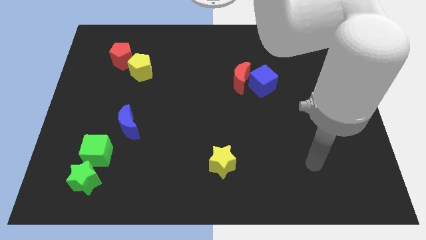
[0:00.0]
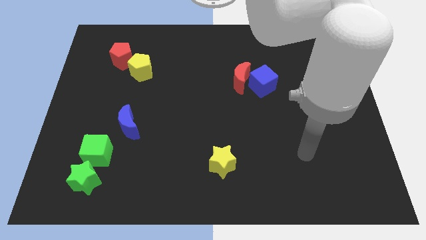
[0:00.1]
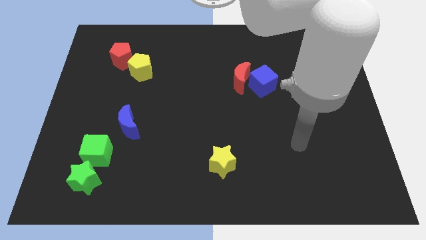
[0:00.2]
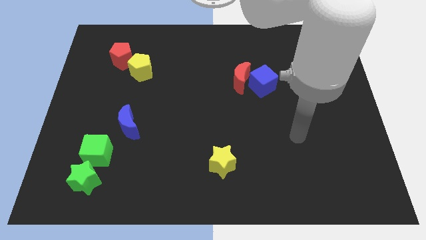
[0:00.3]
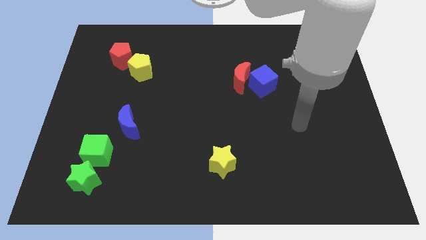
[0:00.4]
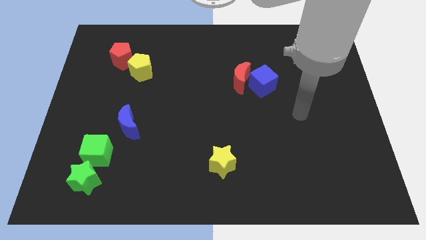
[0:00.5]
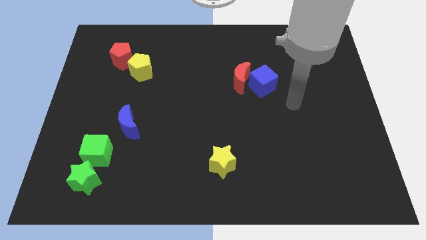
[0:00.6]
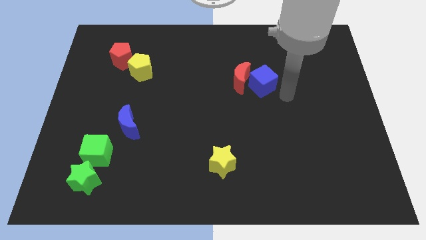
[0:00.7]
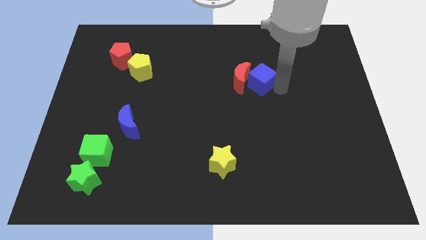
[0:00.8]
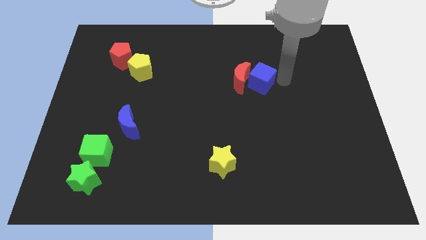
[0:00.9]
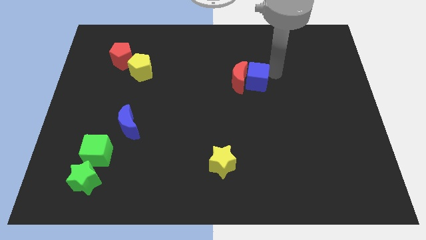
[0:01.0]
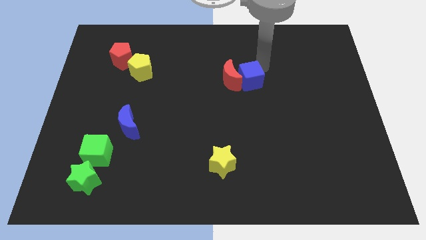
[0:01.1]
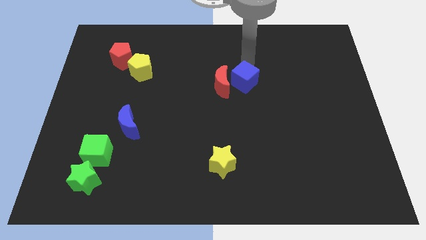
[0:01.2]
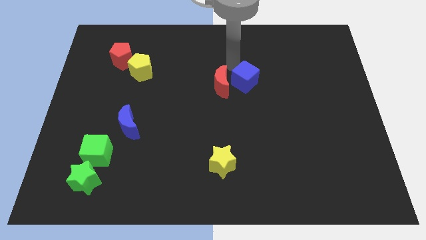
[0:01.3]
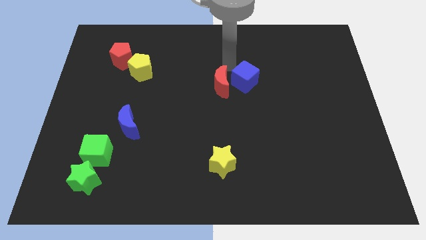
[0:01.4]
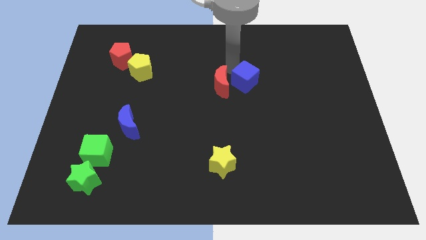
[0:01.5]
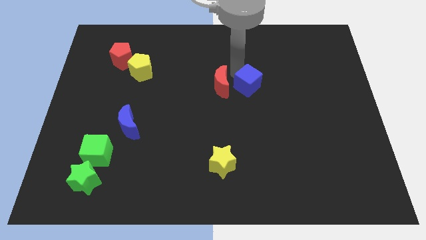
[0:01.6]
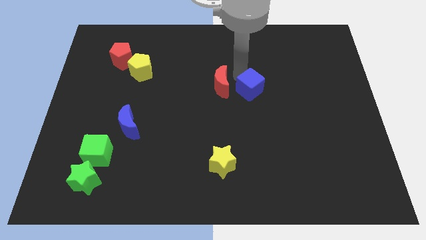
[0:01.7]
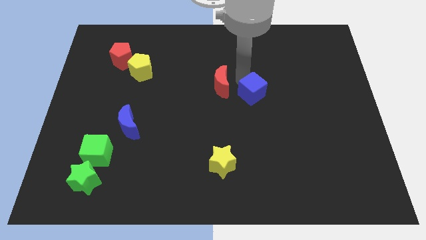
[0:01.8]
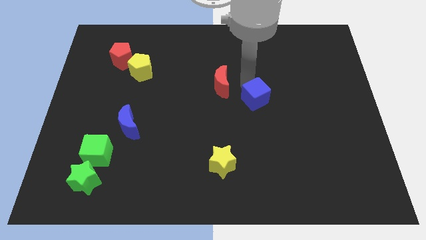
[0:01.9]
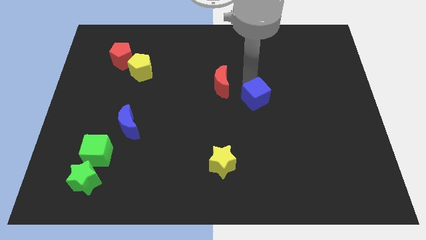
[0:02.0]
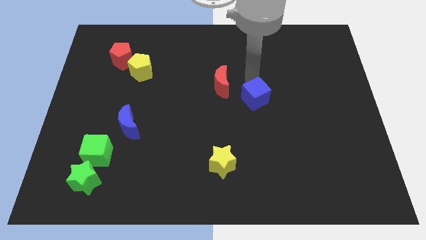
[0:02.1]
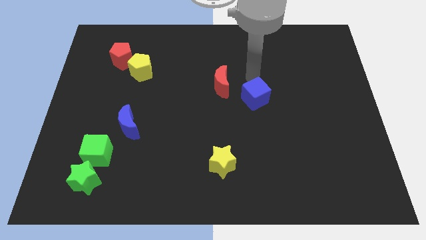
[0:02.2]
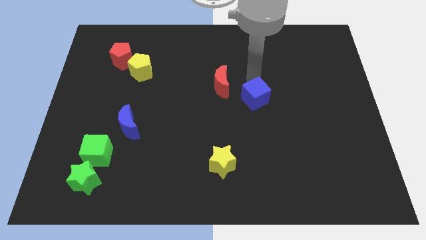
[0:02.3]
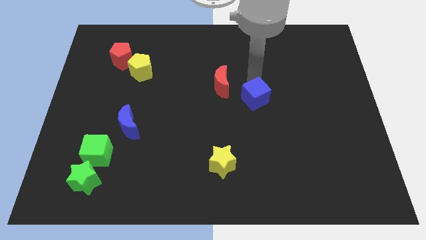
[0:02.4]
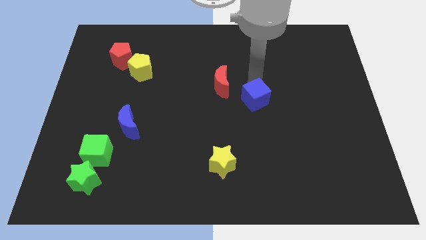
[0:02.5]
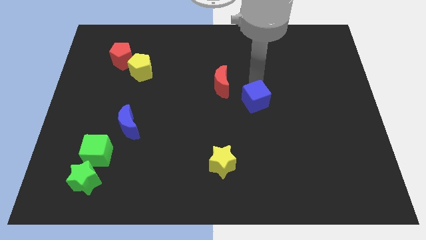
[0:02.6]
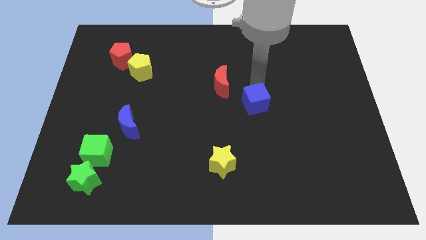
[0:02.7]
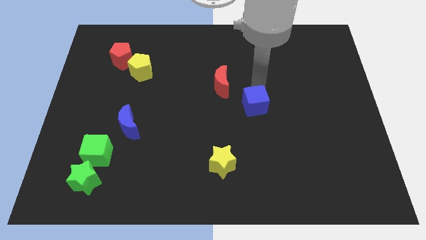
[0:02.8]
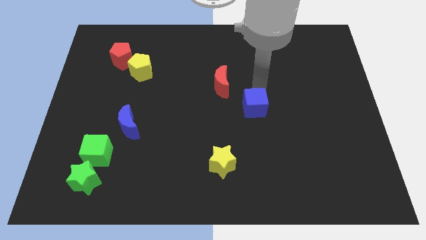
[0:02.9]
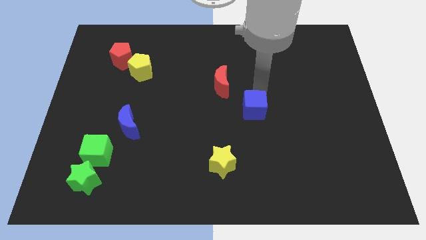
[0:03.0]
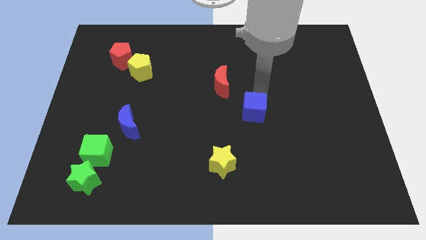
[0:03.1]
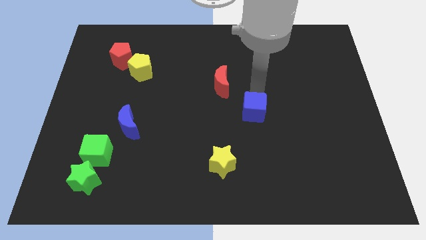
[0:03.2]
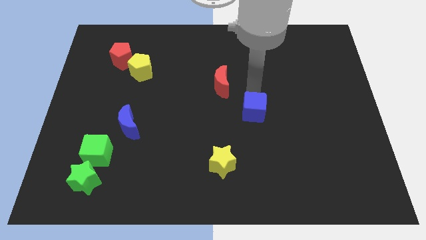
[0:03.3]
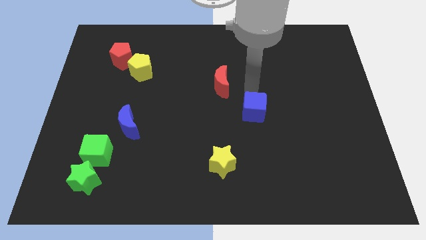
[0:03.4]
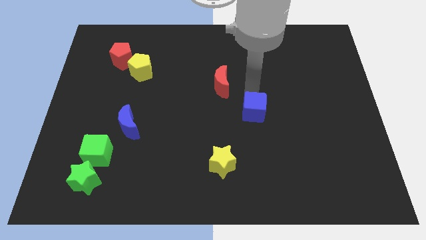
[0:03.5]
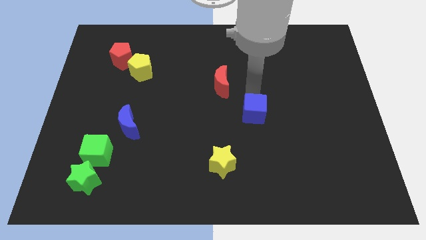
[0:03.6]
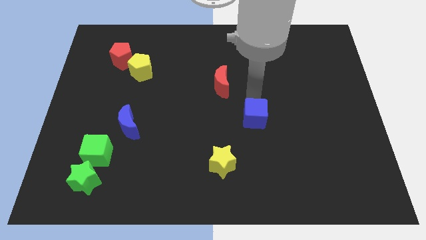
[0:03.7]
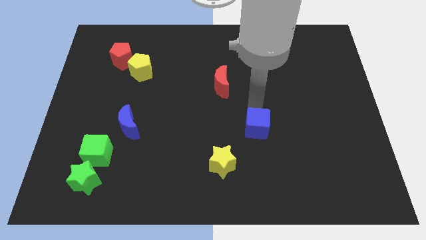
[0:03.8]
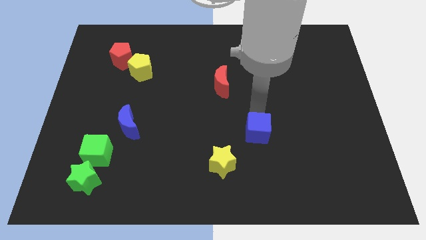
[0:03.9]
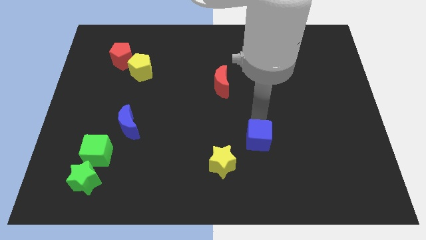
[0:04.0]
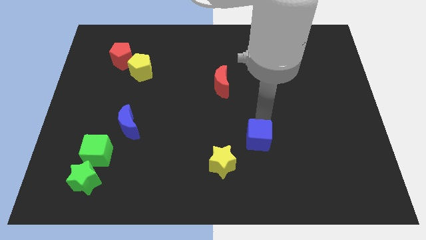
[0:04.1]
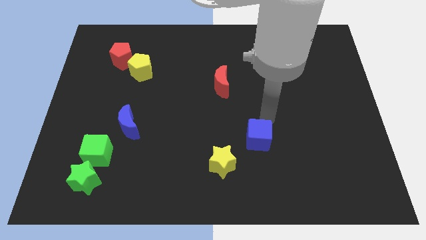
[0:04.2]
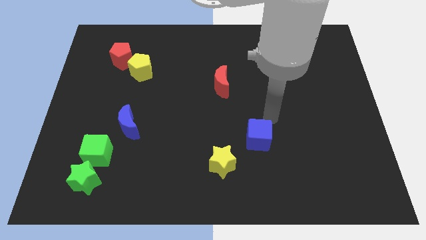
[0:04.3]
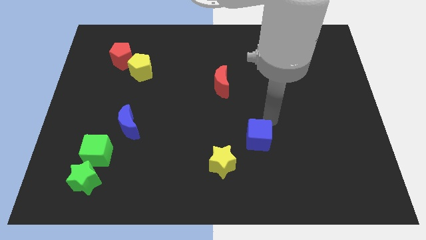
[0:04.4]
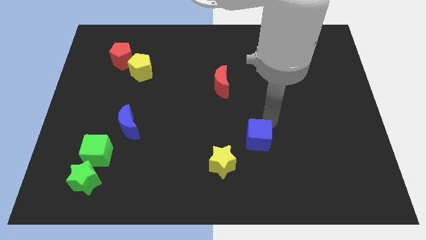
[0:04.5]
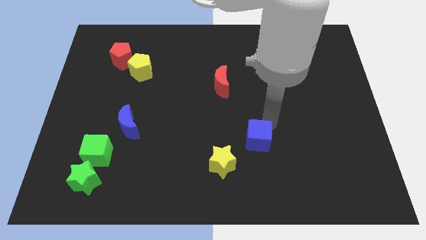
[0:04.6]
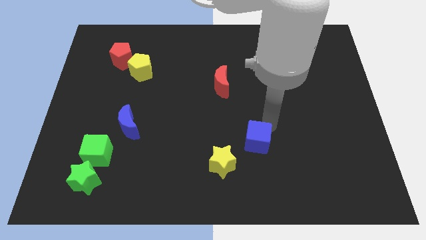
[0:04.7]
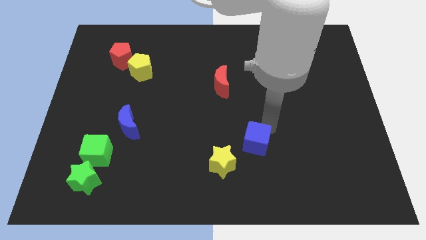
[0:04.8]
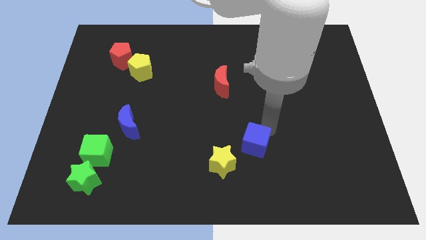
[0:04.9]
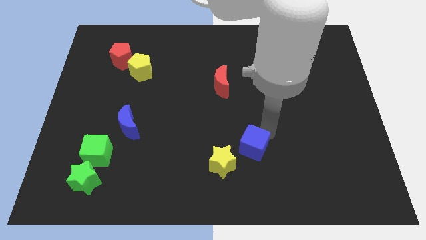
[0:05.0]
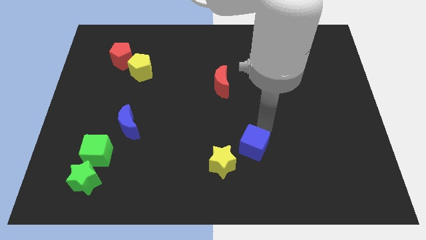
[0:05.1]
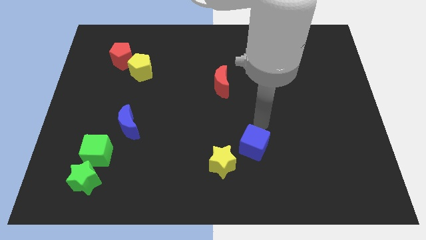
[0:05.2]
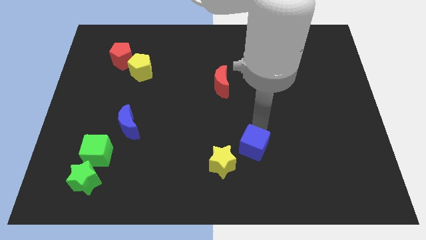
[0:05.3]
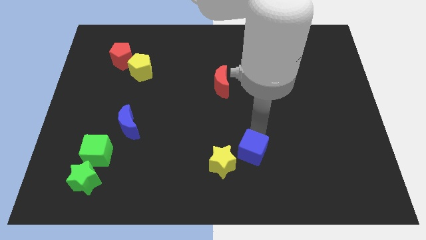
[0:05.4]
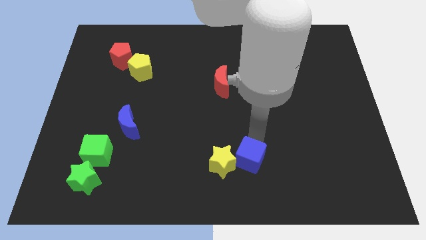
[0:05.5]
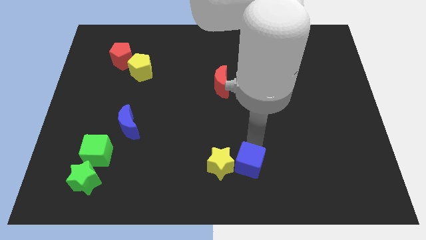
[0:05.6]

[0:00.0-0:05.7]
put the blue cube to the bottom
